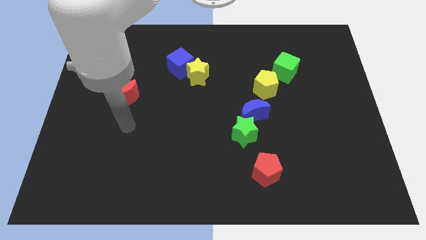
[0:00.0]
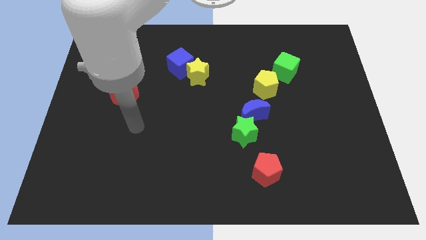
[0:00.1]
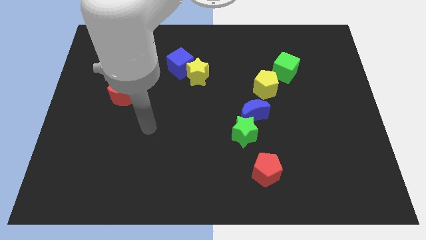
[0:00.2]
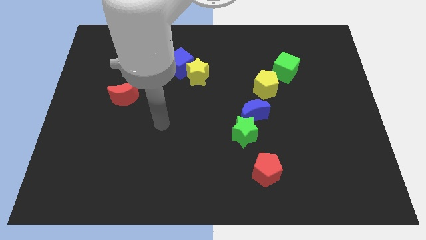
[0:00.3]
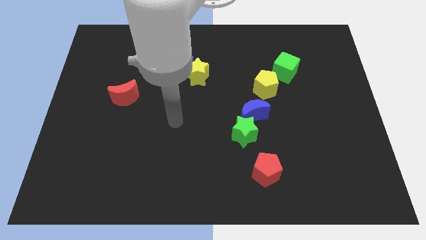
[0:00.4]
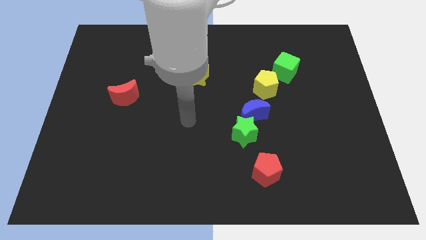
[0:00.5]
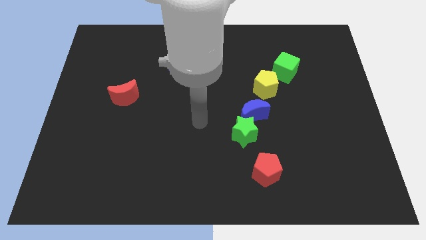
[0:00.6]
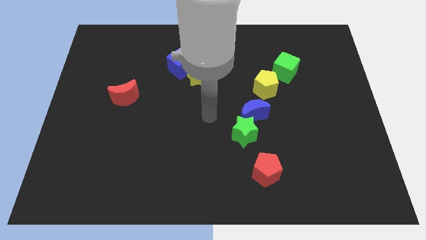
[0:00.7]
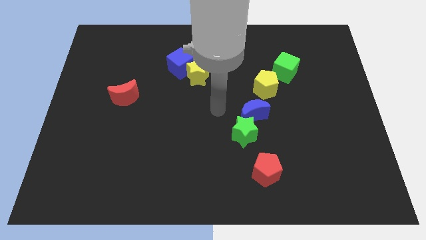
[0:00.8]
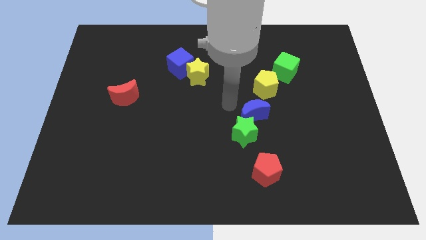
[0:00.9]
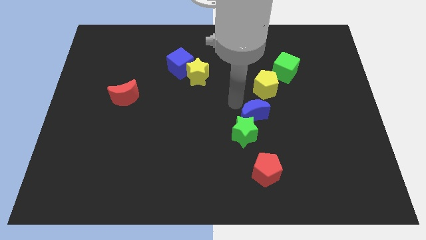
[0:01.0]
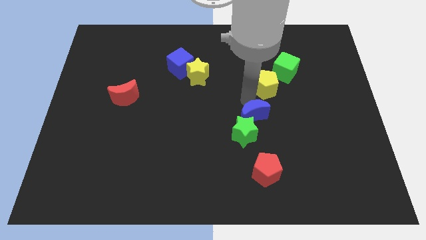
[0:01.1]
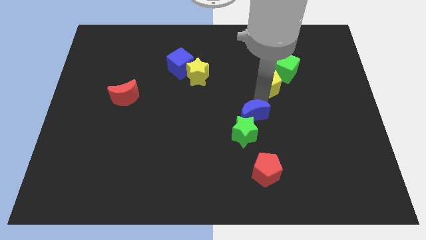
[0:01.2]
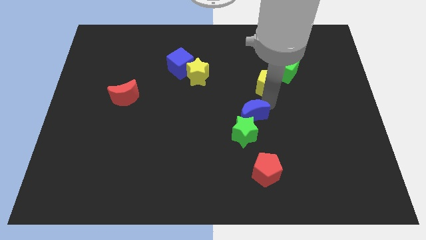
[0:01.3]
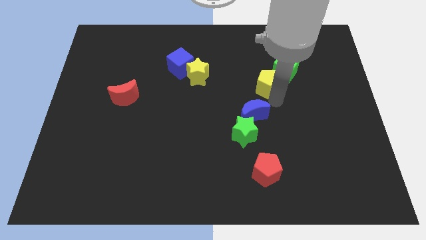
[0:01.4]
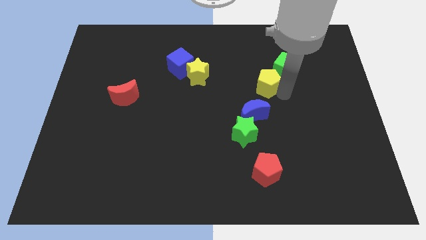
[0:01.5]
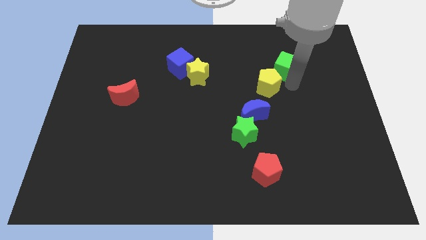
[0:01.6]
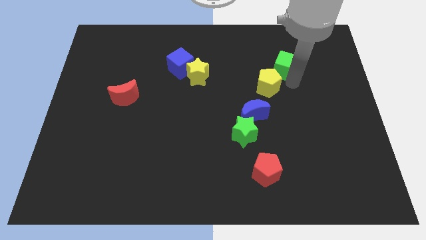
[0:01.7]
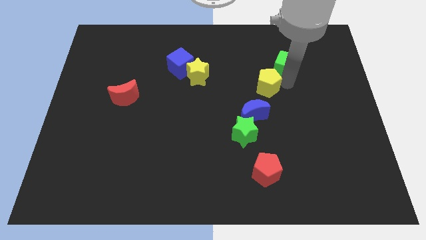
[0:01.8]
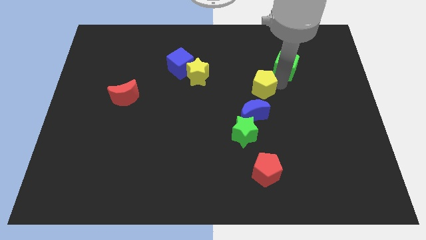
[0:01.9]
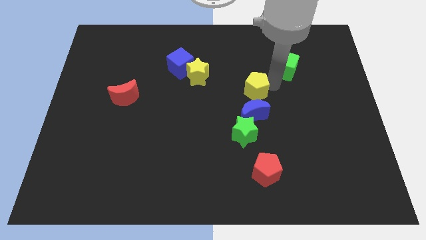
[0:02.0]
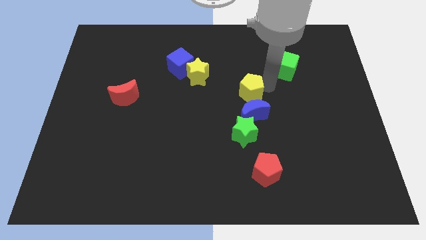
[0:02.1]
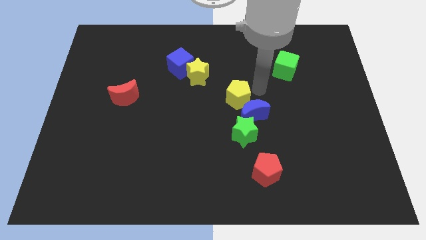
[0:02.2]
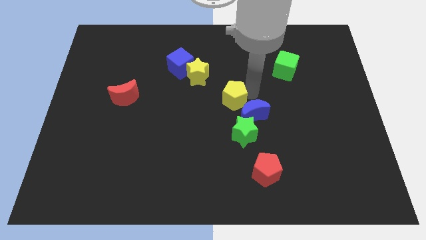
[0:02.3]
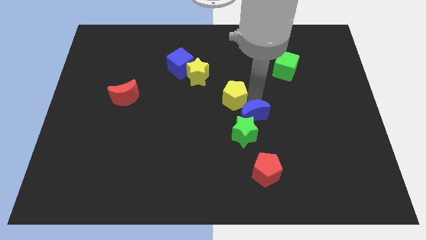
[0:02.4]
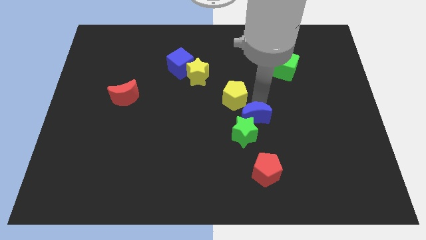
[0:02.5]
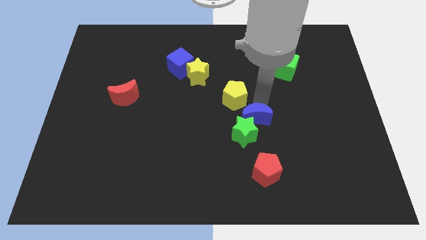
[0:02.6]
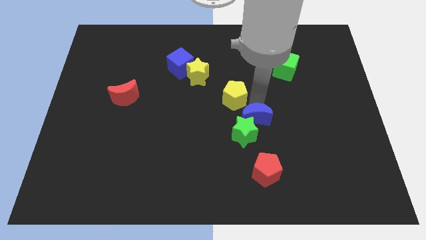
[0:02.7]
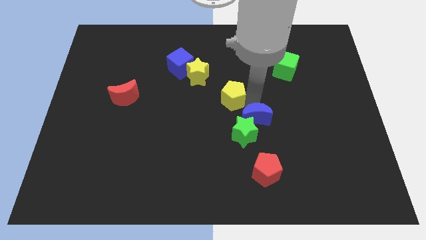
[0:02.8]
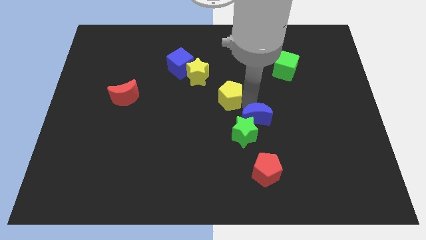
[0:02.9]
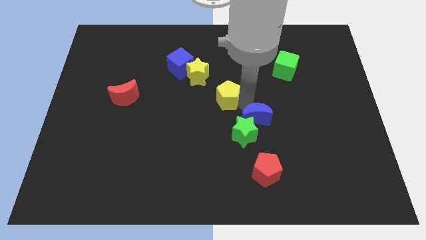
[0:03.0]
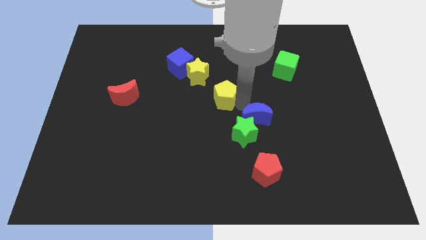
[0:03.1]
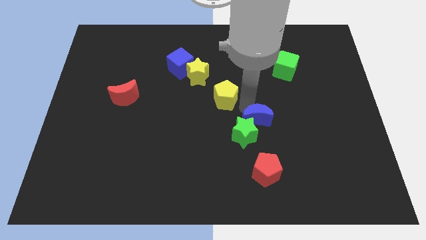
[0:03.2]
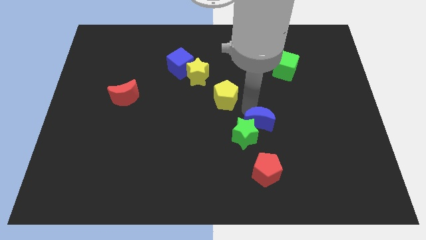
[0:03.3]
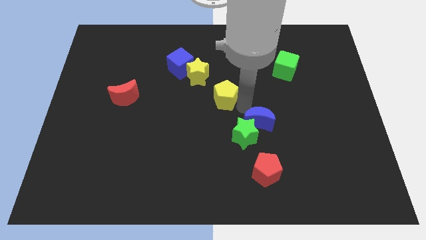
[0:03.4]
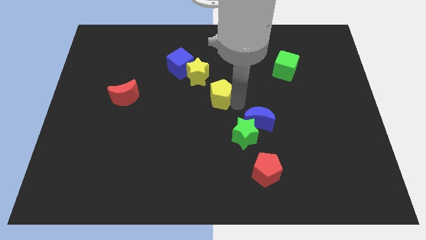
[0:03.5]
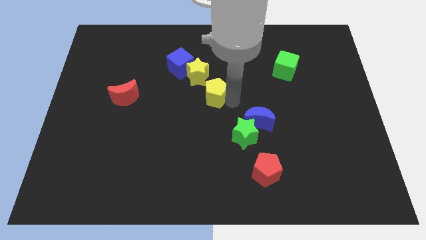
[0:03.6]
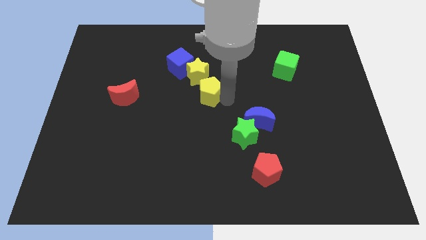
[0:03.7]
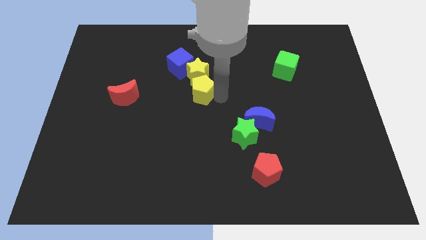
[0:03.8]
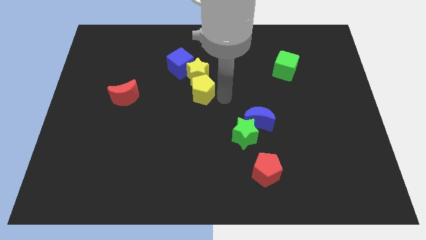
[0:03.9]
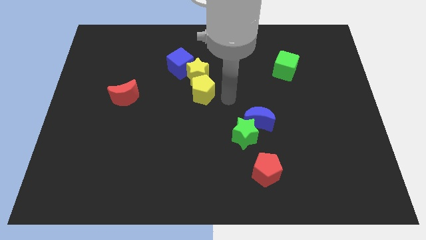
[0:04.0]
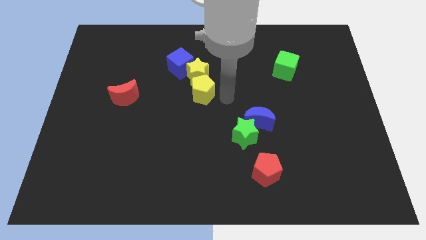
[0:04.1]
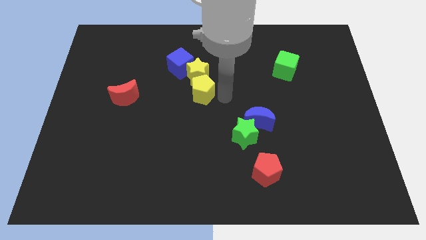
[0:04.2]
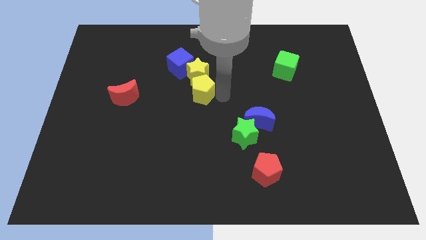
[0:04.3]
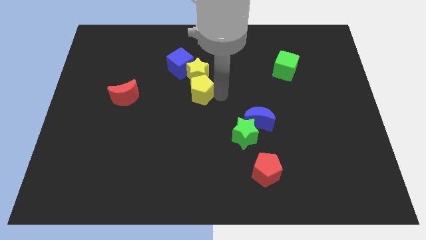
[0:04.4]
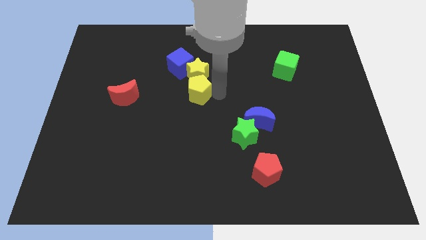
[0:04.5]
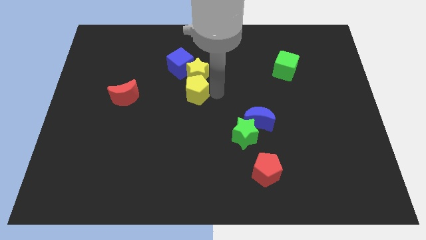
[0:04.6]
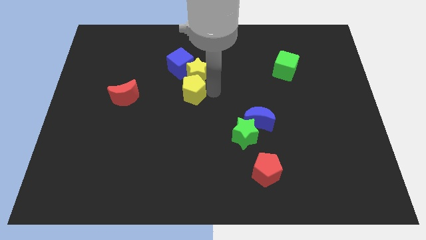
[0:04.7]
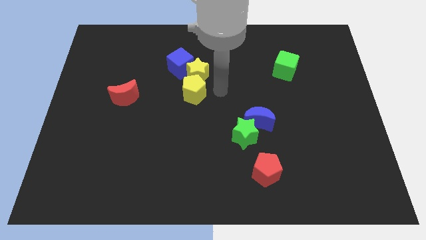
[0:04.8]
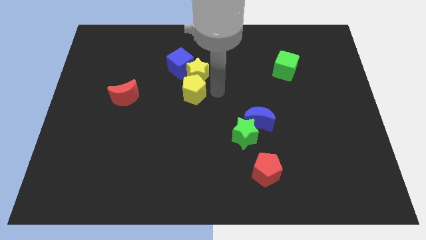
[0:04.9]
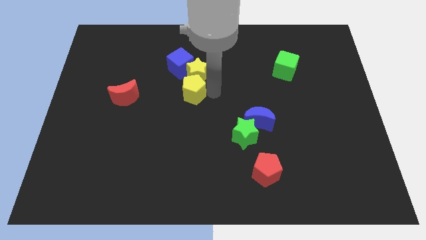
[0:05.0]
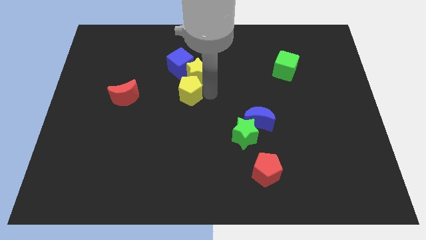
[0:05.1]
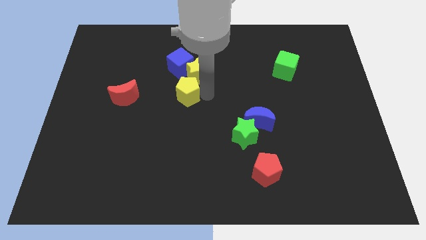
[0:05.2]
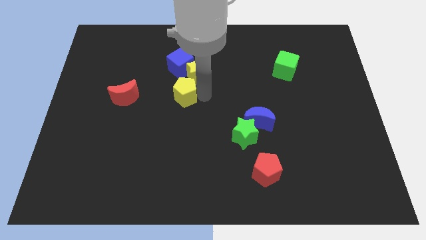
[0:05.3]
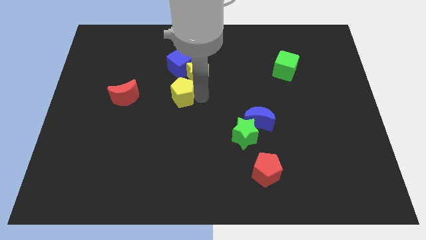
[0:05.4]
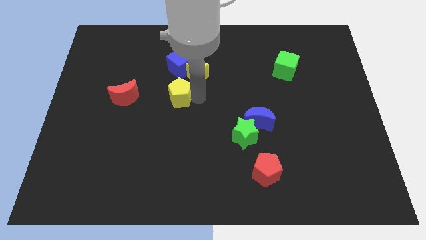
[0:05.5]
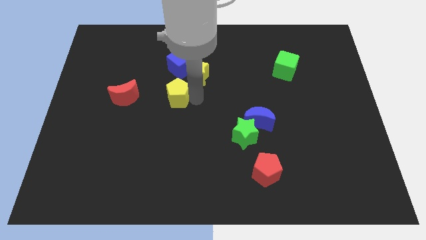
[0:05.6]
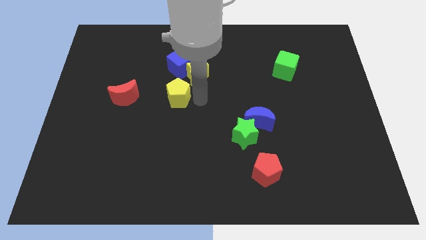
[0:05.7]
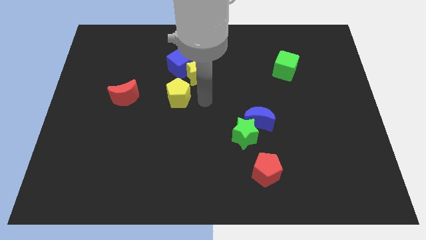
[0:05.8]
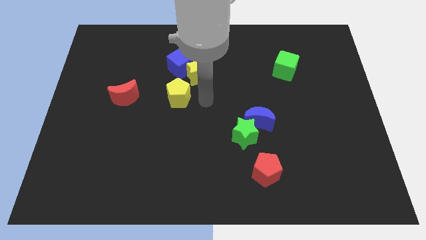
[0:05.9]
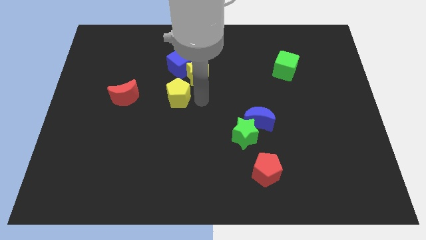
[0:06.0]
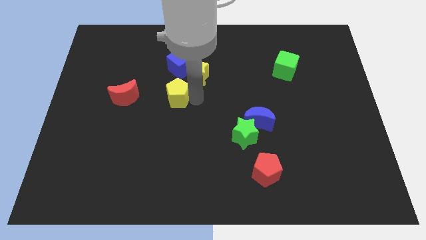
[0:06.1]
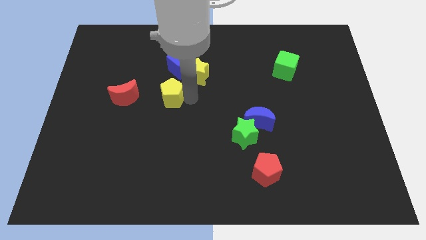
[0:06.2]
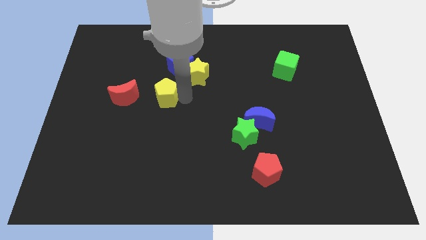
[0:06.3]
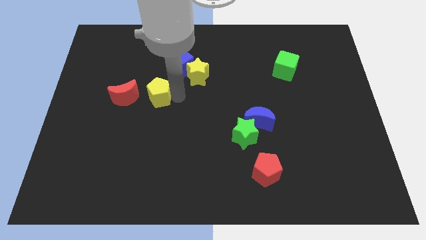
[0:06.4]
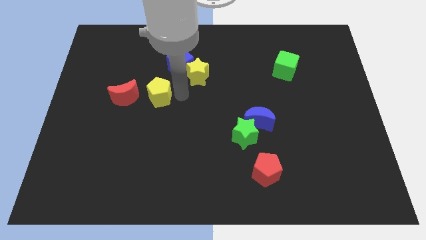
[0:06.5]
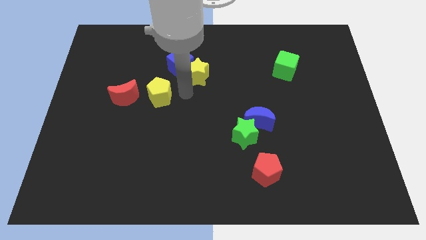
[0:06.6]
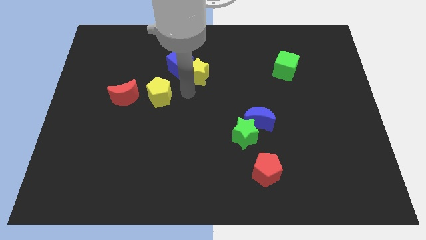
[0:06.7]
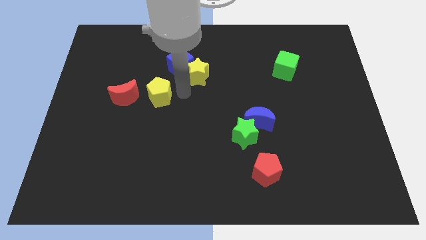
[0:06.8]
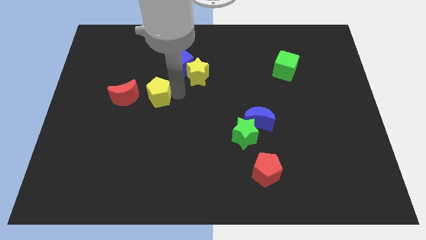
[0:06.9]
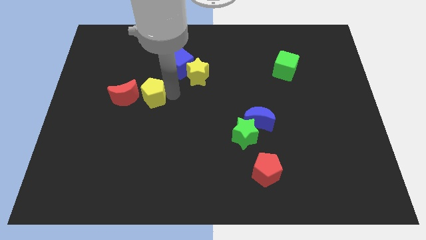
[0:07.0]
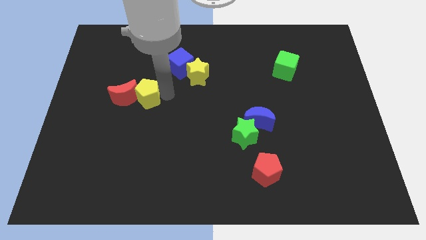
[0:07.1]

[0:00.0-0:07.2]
slide the yellow pentagon next to the red moon

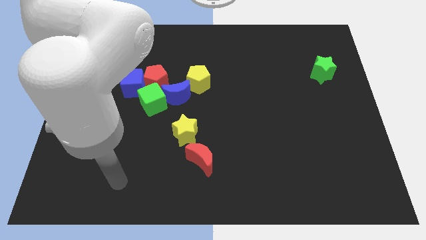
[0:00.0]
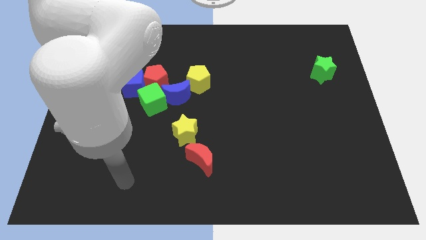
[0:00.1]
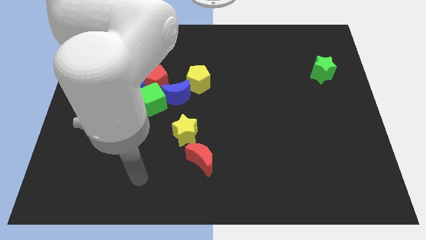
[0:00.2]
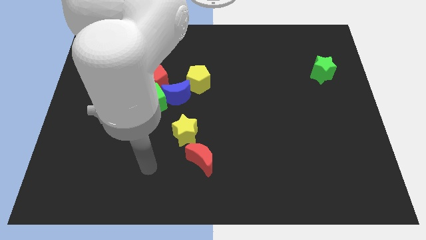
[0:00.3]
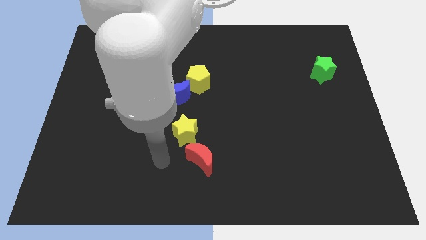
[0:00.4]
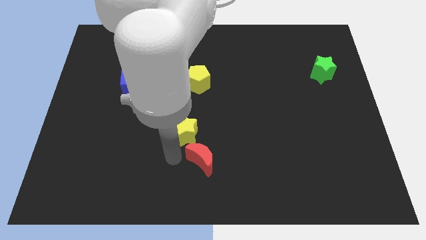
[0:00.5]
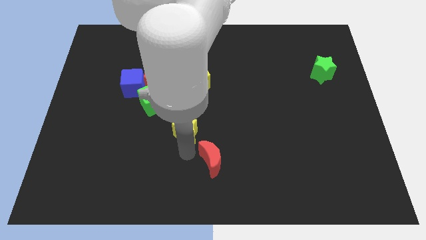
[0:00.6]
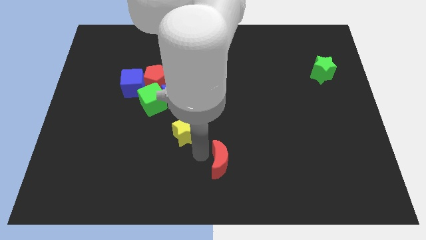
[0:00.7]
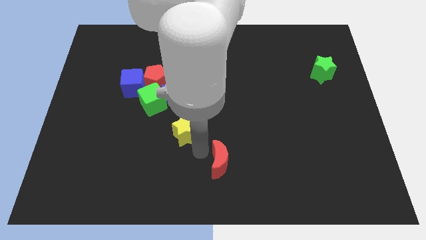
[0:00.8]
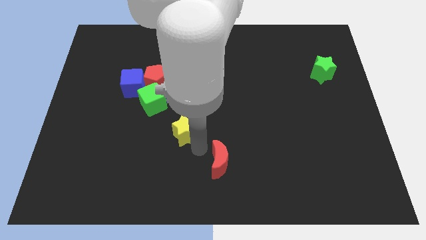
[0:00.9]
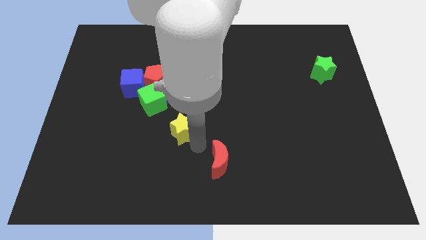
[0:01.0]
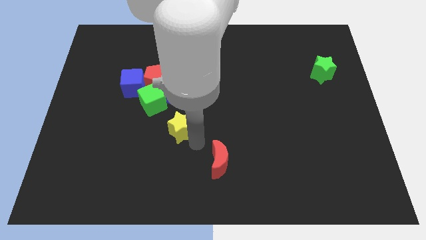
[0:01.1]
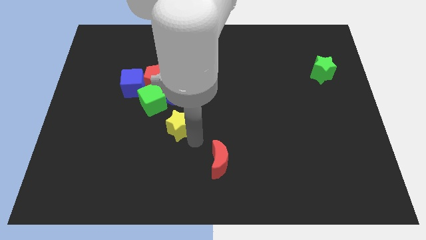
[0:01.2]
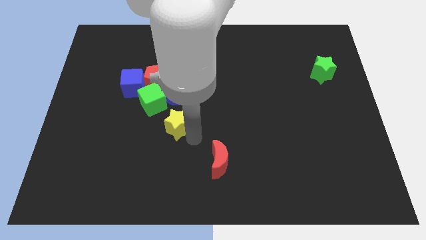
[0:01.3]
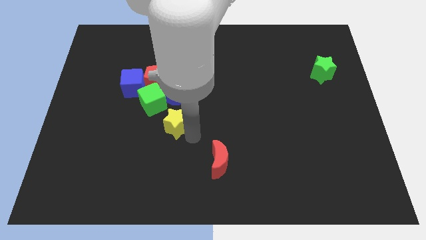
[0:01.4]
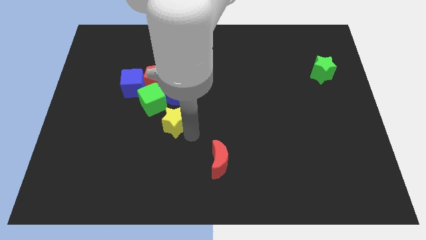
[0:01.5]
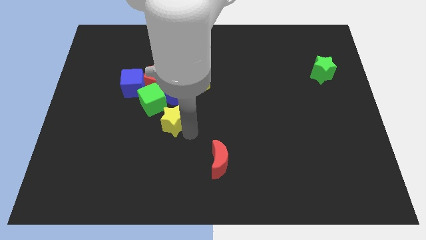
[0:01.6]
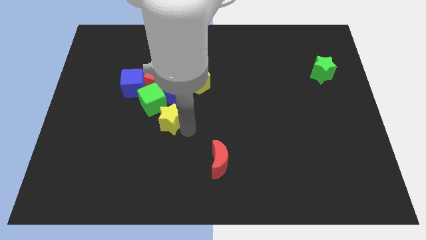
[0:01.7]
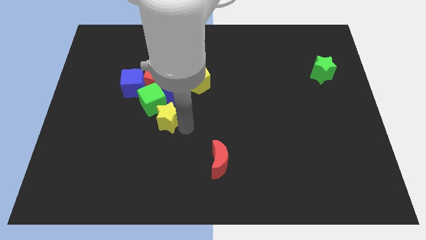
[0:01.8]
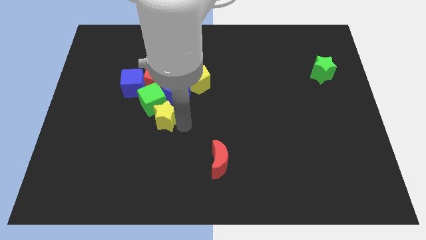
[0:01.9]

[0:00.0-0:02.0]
move the yellow star next to the green cube
